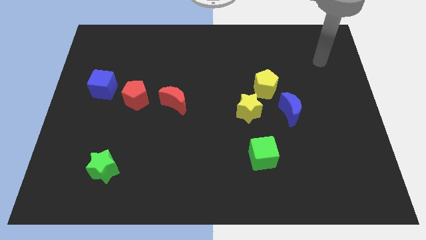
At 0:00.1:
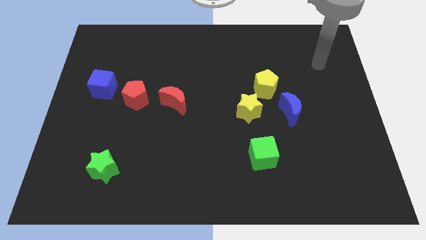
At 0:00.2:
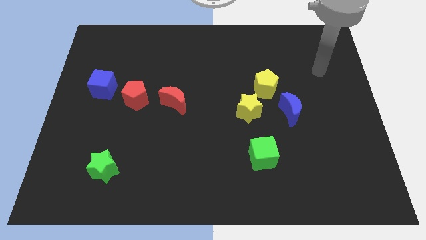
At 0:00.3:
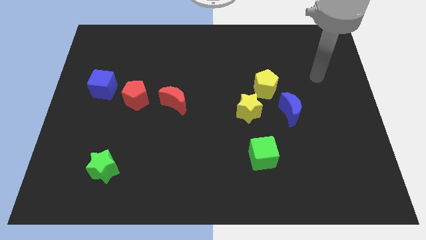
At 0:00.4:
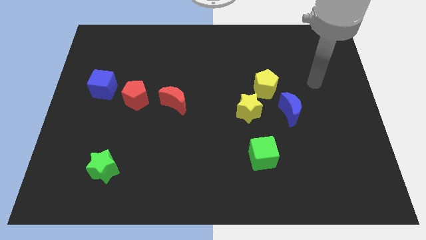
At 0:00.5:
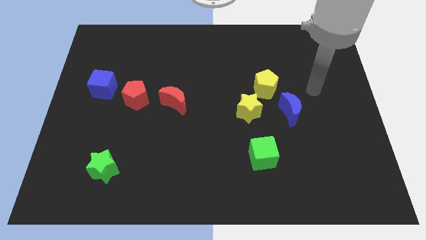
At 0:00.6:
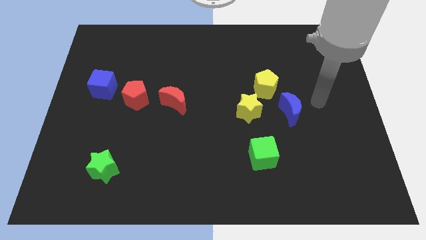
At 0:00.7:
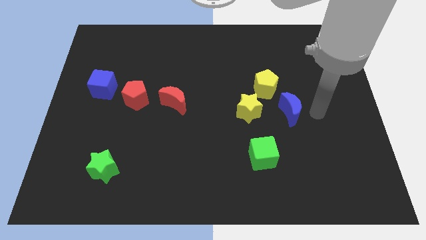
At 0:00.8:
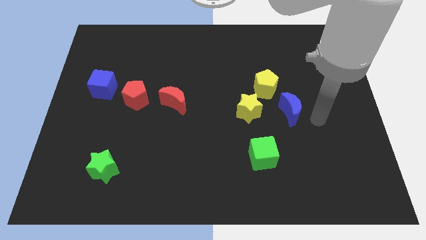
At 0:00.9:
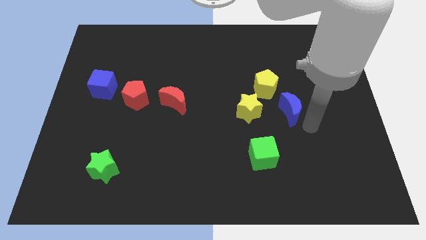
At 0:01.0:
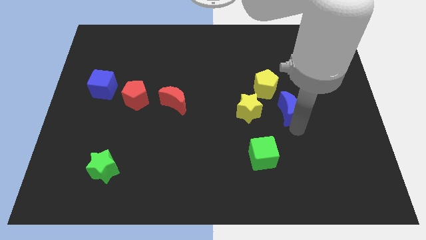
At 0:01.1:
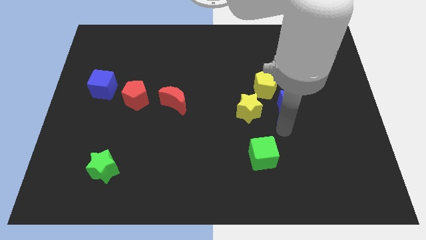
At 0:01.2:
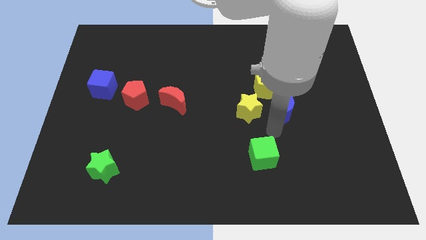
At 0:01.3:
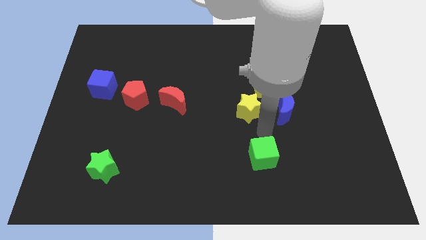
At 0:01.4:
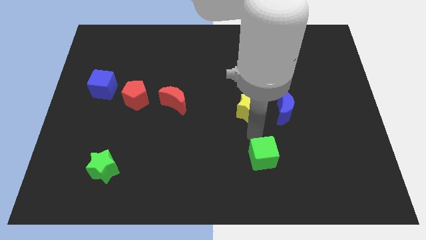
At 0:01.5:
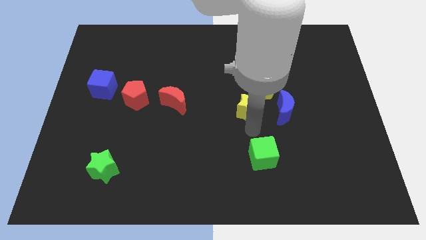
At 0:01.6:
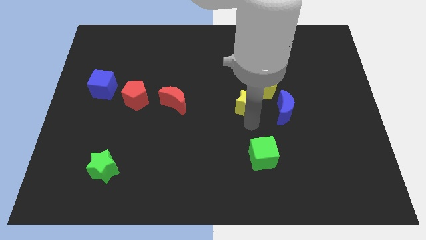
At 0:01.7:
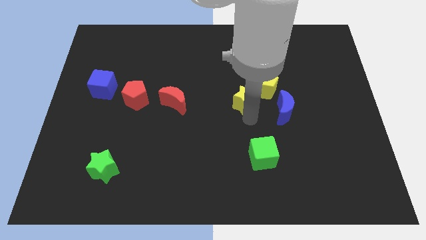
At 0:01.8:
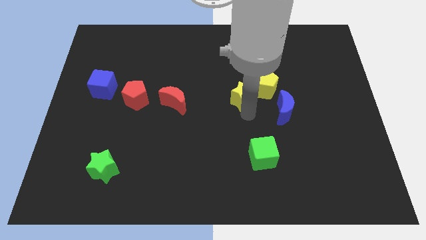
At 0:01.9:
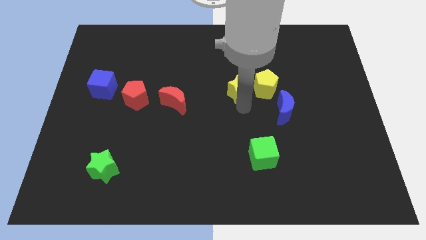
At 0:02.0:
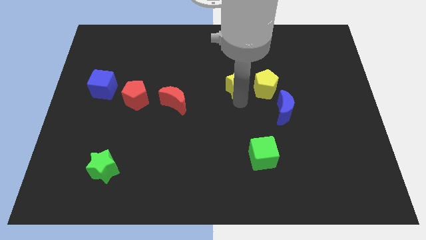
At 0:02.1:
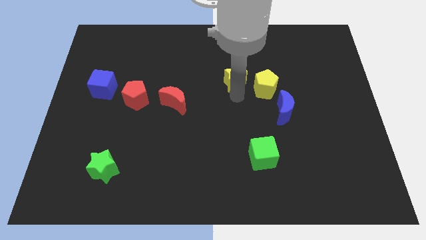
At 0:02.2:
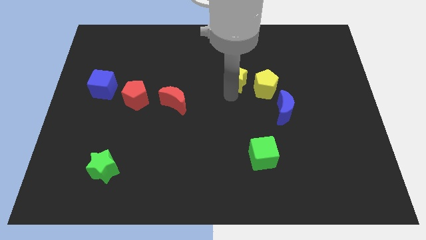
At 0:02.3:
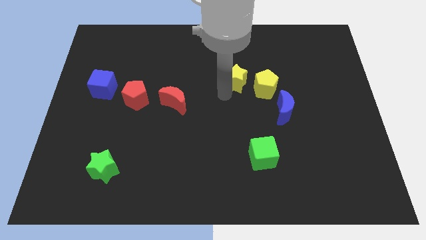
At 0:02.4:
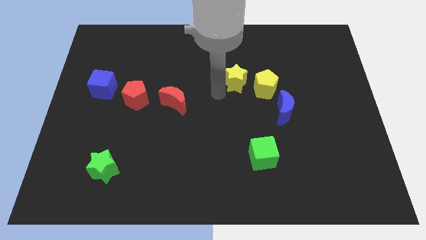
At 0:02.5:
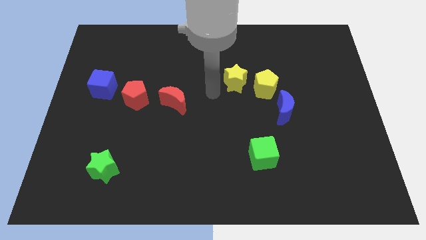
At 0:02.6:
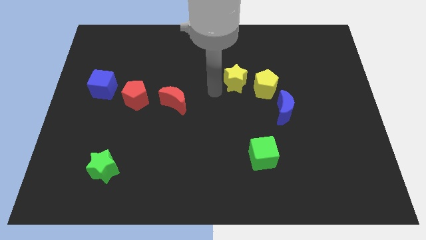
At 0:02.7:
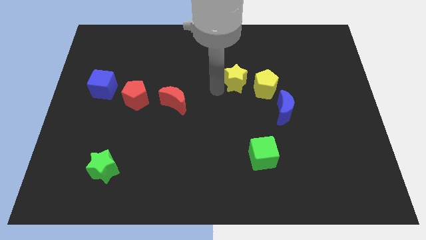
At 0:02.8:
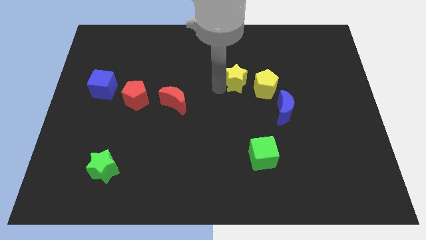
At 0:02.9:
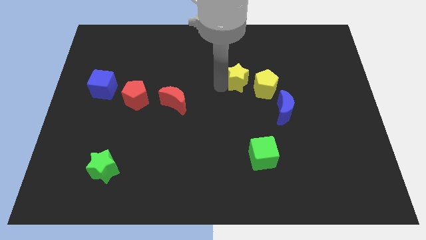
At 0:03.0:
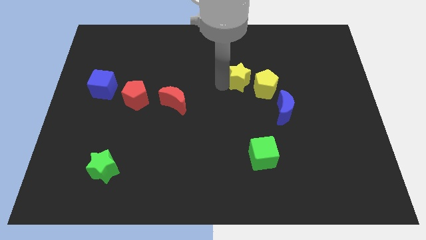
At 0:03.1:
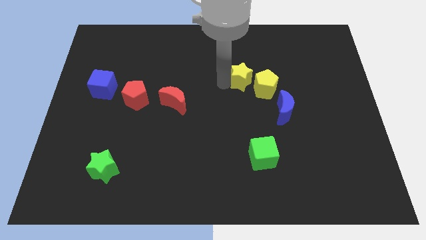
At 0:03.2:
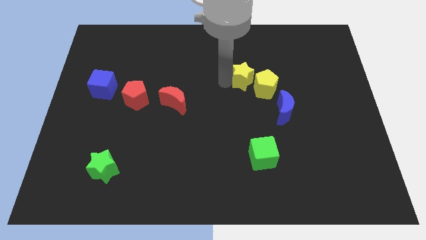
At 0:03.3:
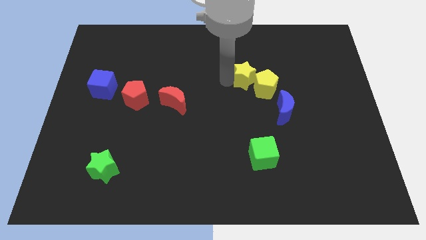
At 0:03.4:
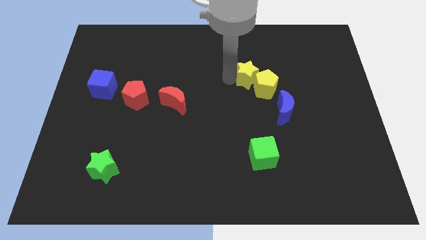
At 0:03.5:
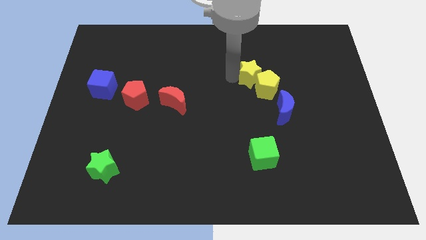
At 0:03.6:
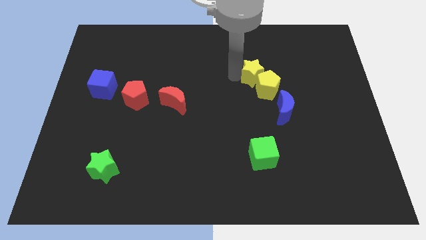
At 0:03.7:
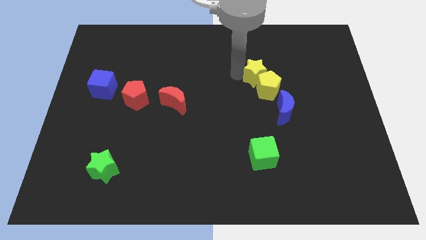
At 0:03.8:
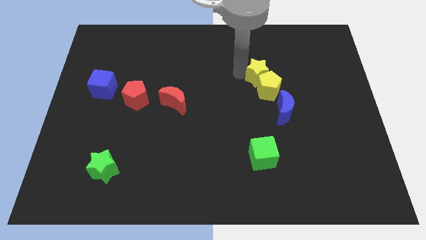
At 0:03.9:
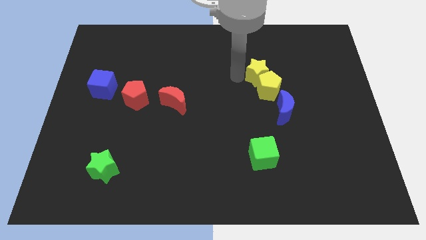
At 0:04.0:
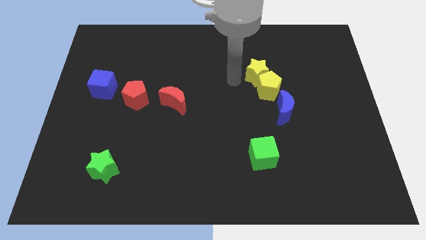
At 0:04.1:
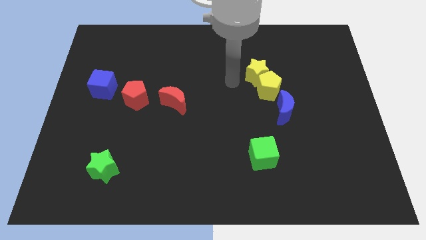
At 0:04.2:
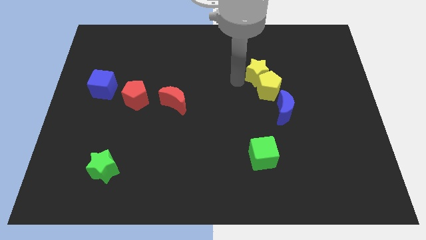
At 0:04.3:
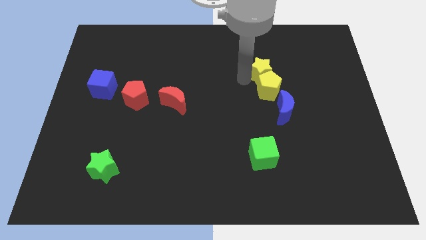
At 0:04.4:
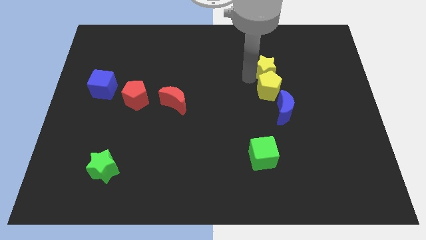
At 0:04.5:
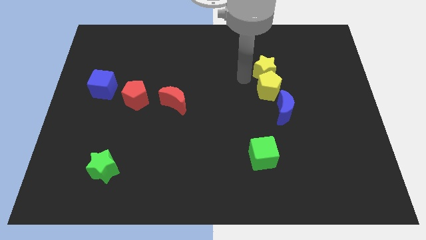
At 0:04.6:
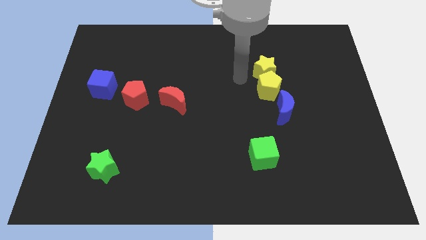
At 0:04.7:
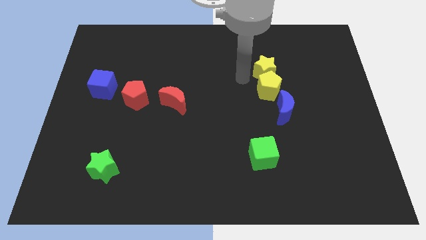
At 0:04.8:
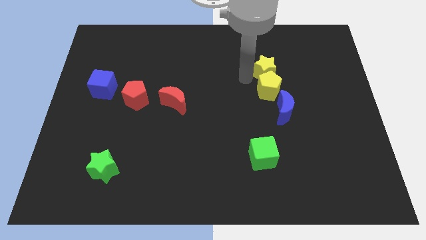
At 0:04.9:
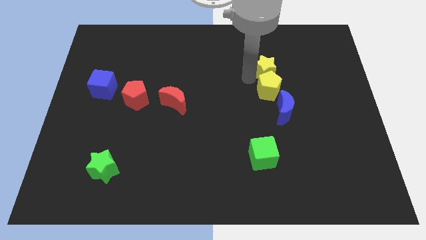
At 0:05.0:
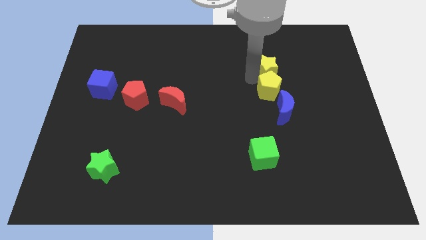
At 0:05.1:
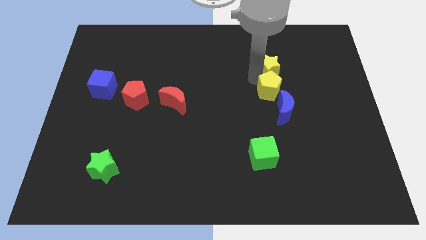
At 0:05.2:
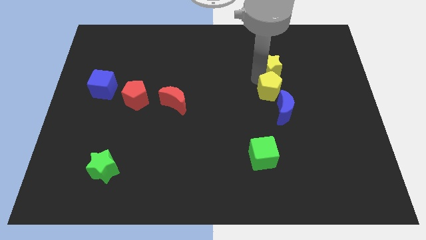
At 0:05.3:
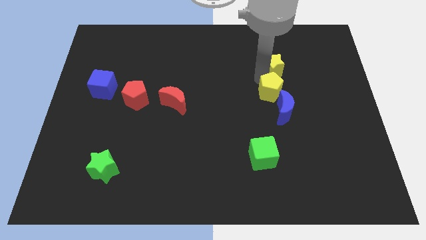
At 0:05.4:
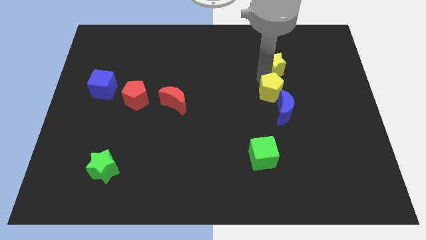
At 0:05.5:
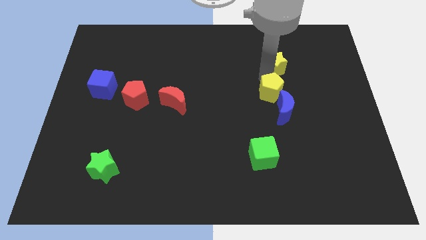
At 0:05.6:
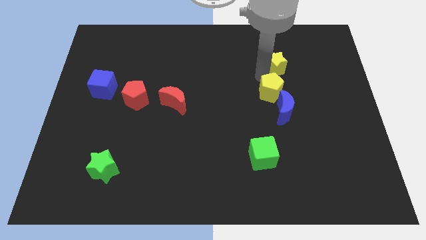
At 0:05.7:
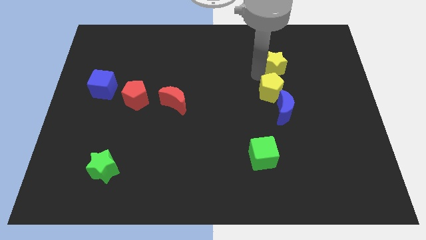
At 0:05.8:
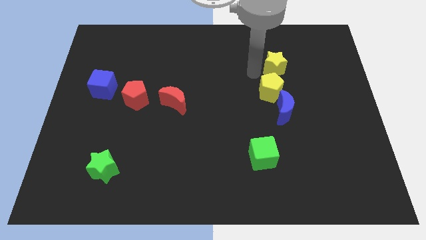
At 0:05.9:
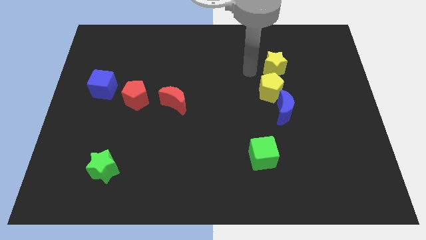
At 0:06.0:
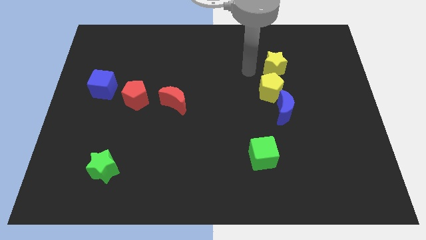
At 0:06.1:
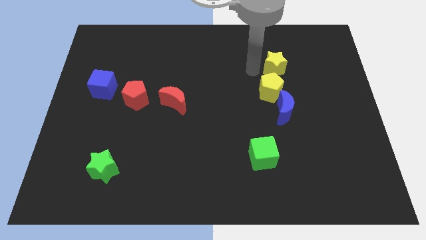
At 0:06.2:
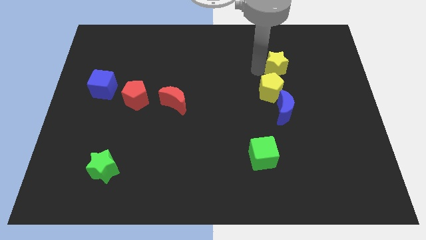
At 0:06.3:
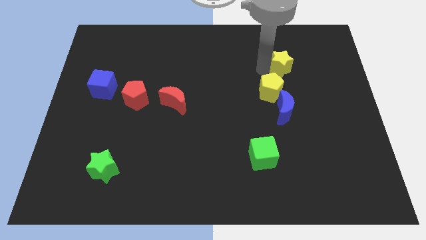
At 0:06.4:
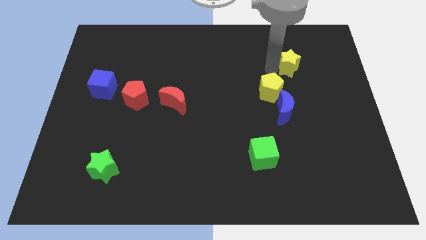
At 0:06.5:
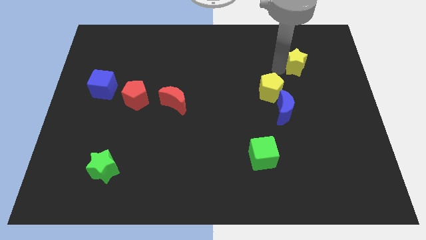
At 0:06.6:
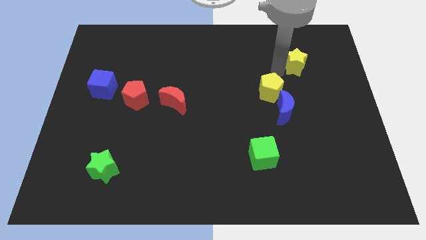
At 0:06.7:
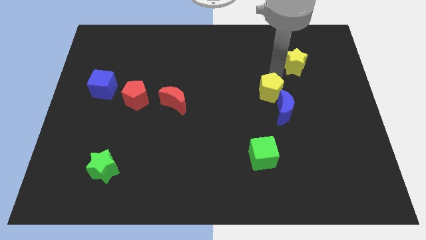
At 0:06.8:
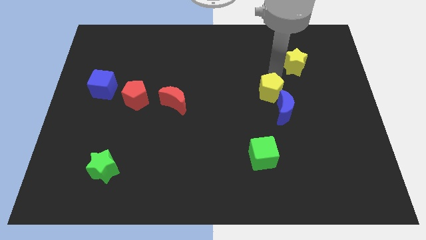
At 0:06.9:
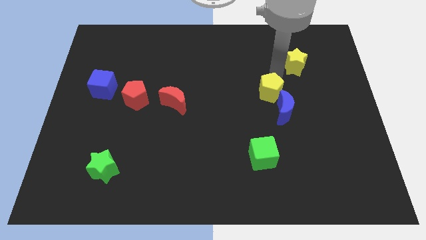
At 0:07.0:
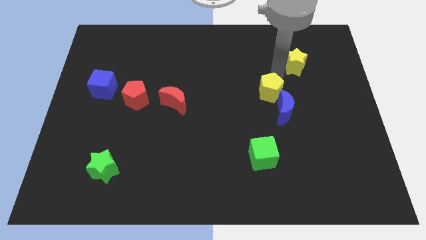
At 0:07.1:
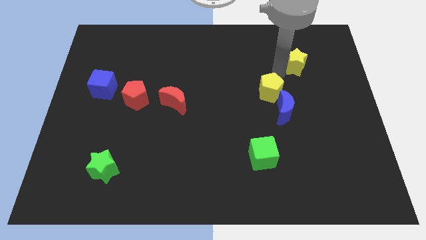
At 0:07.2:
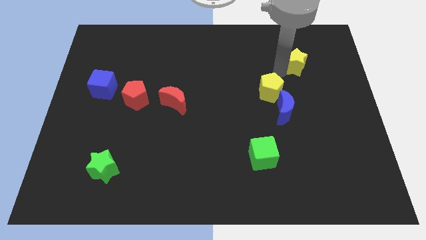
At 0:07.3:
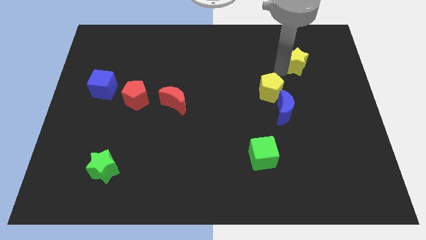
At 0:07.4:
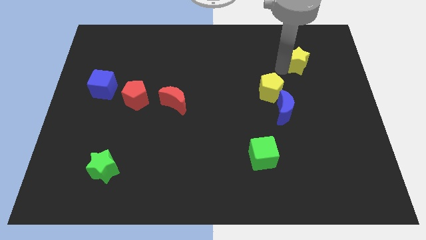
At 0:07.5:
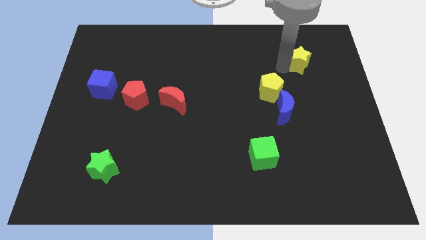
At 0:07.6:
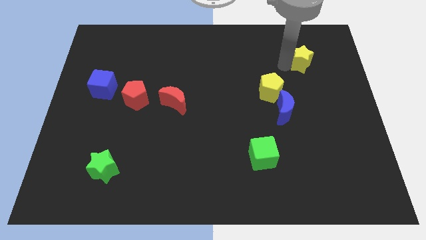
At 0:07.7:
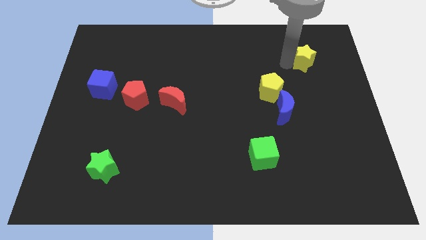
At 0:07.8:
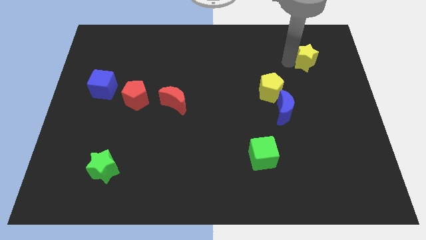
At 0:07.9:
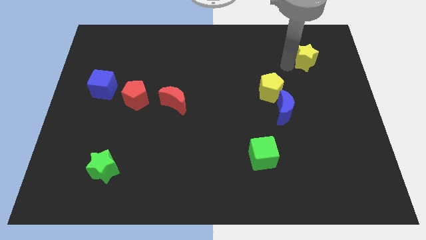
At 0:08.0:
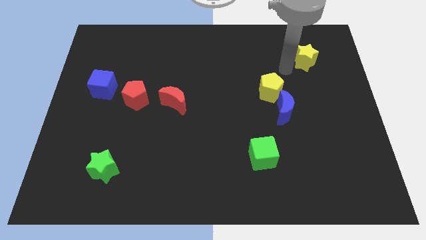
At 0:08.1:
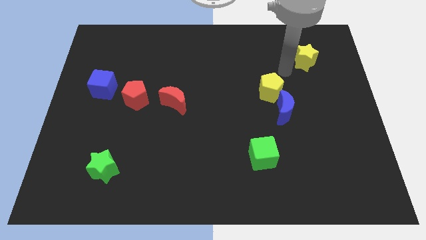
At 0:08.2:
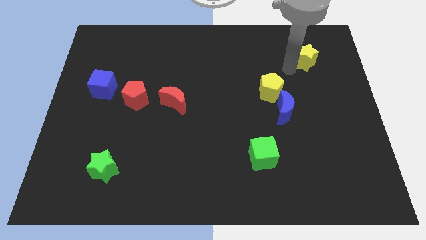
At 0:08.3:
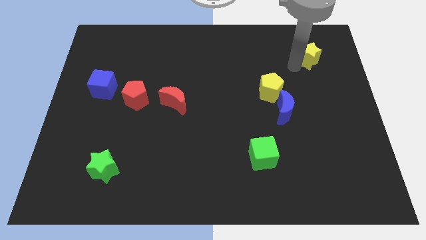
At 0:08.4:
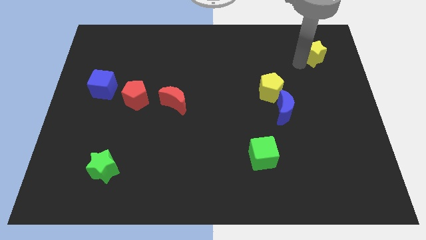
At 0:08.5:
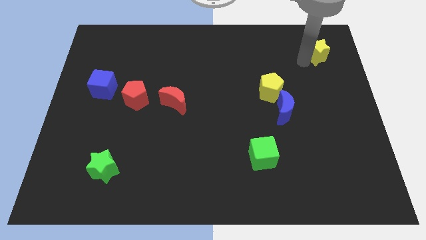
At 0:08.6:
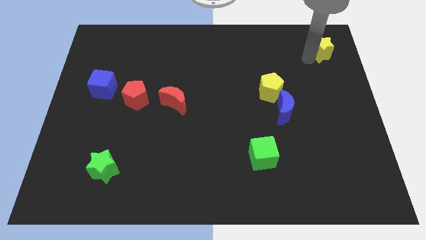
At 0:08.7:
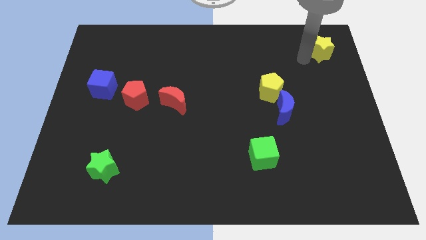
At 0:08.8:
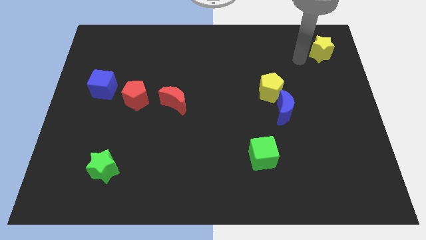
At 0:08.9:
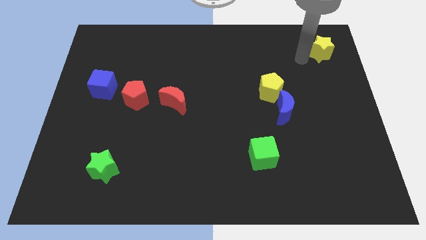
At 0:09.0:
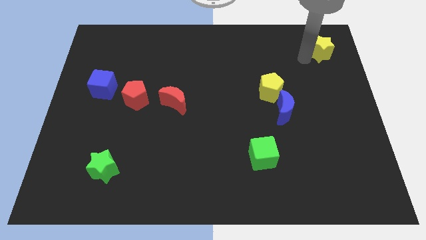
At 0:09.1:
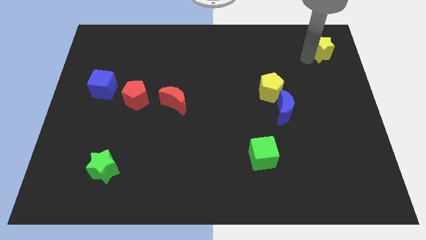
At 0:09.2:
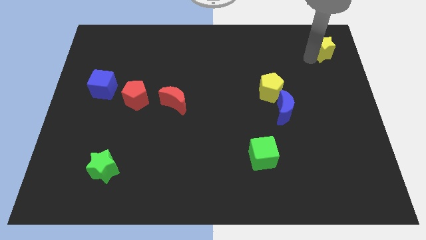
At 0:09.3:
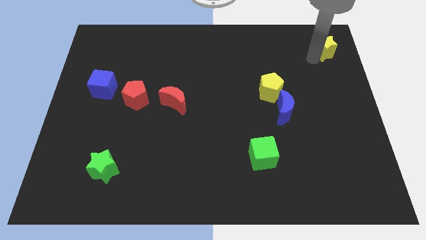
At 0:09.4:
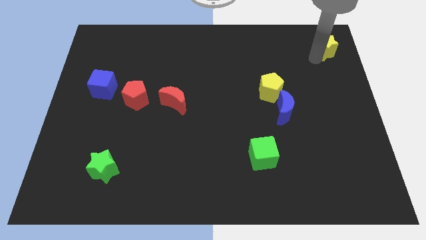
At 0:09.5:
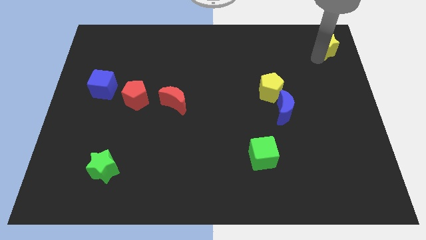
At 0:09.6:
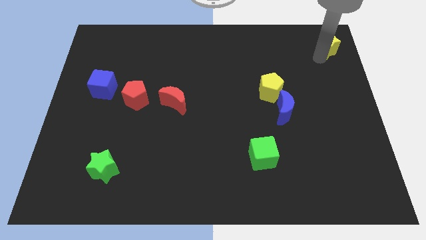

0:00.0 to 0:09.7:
slide the yellow star to the top right
